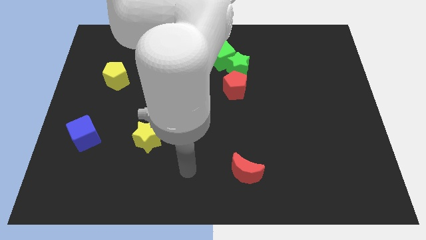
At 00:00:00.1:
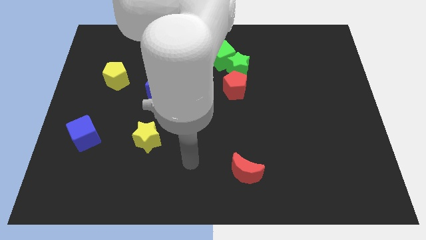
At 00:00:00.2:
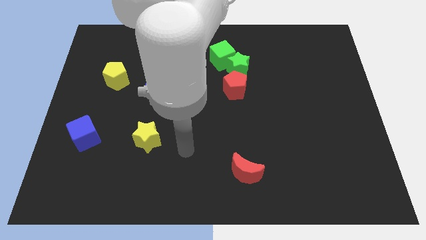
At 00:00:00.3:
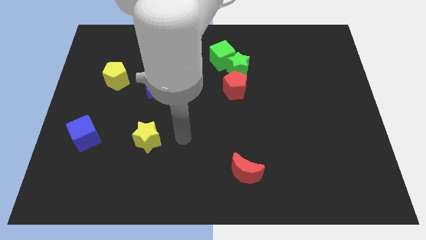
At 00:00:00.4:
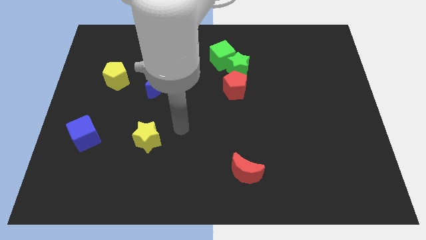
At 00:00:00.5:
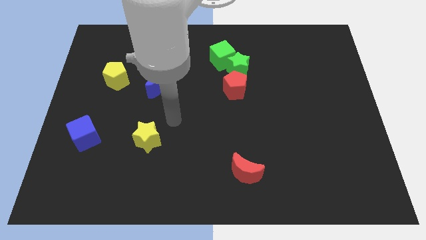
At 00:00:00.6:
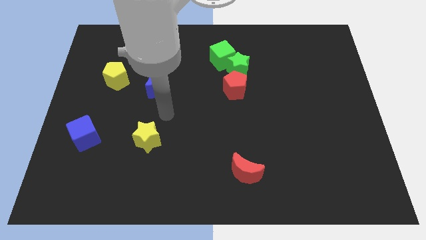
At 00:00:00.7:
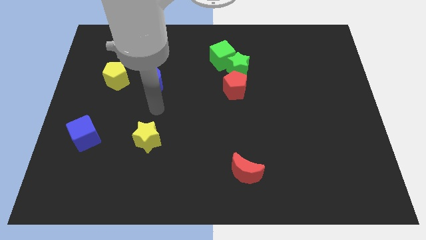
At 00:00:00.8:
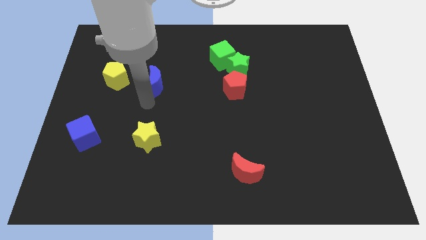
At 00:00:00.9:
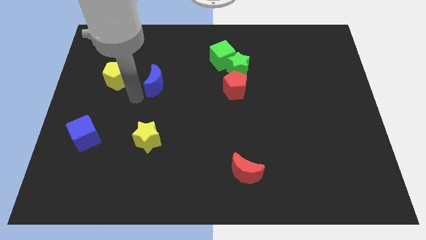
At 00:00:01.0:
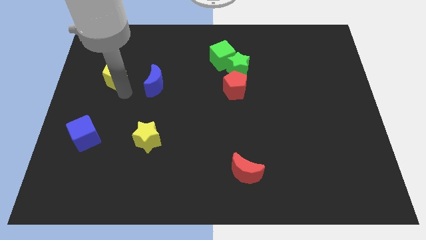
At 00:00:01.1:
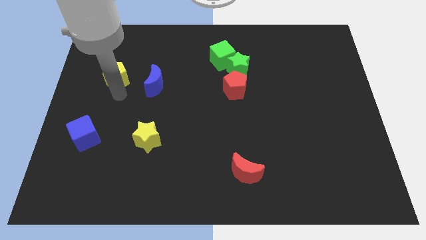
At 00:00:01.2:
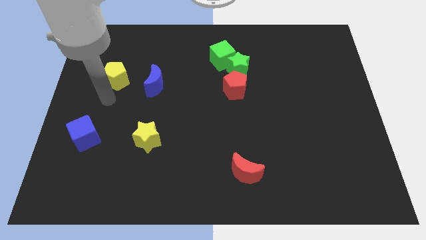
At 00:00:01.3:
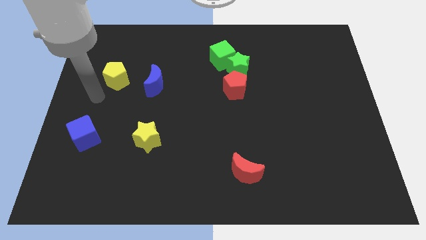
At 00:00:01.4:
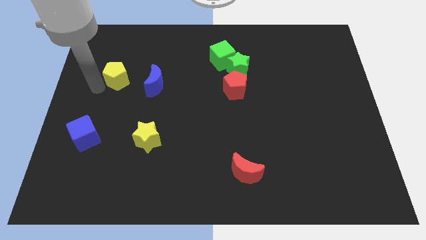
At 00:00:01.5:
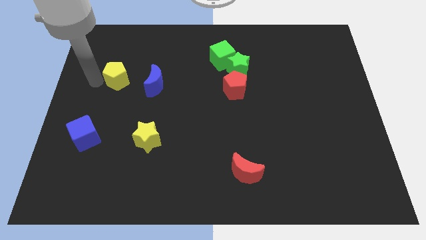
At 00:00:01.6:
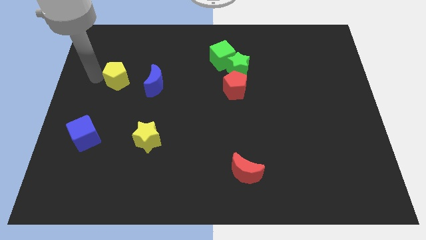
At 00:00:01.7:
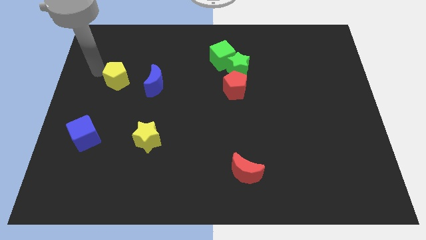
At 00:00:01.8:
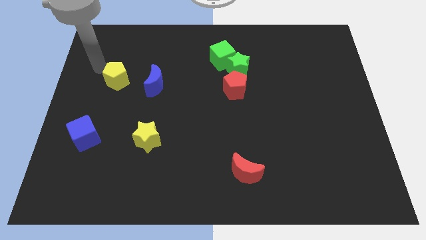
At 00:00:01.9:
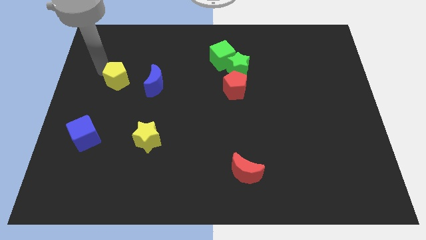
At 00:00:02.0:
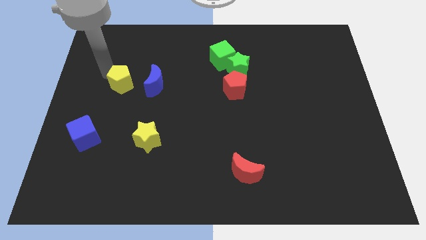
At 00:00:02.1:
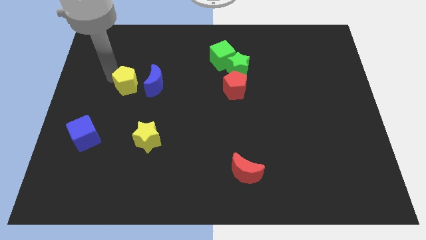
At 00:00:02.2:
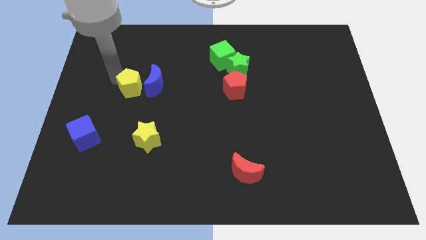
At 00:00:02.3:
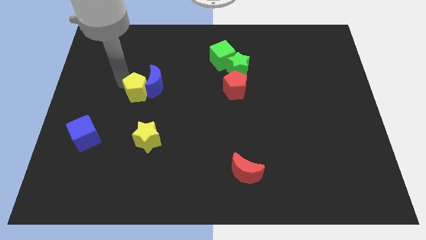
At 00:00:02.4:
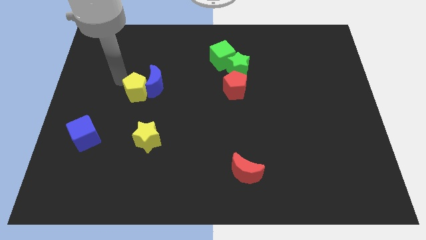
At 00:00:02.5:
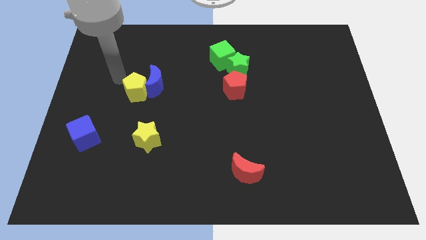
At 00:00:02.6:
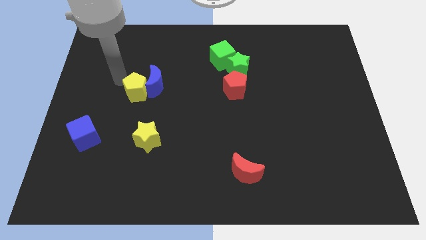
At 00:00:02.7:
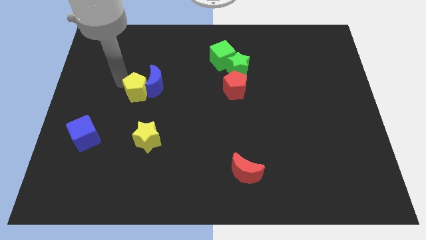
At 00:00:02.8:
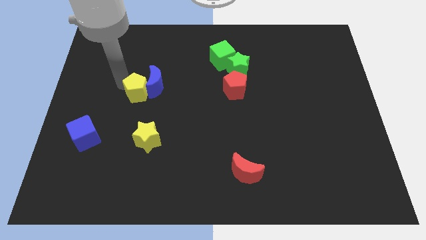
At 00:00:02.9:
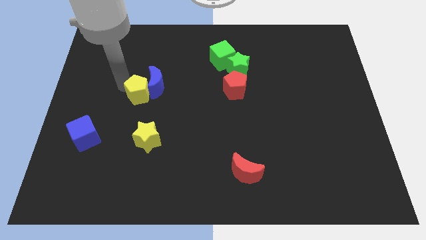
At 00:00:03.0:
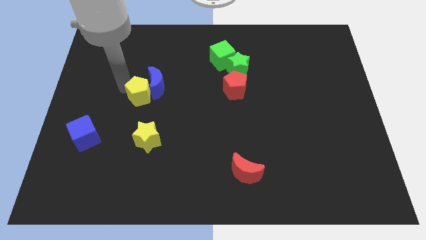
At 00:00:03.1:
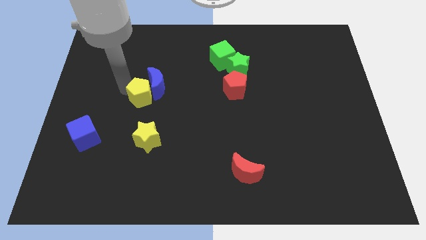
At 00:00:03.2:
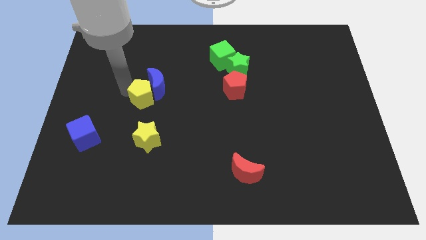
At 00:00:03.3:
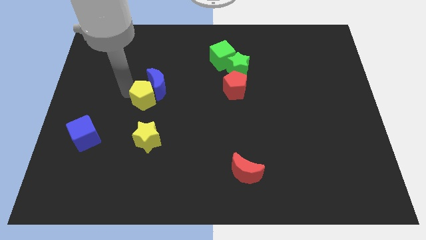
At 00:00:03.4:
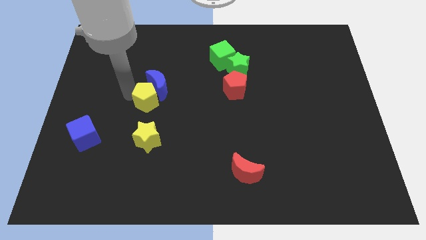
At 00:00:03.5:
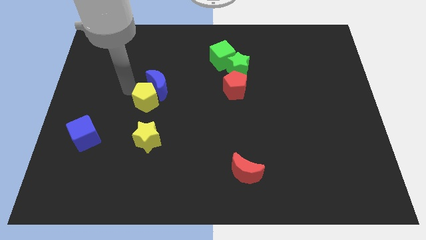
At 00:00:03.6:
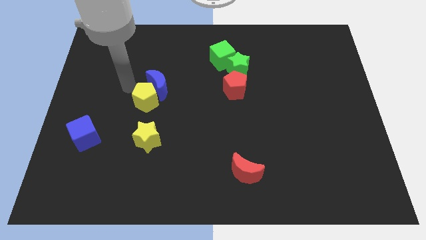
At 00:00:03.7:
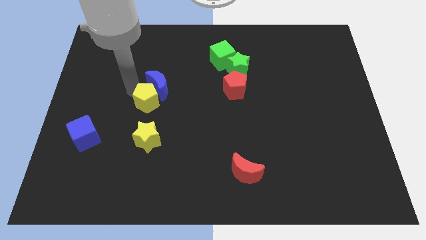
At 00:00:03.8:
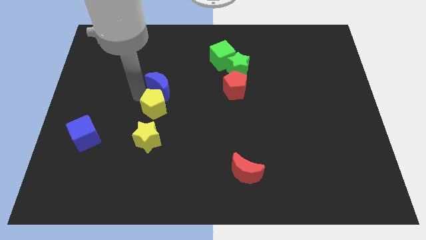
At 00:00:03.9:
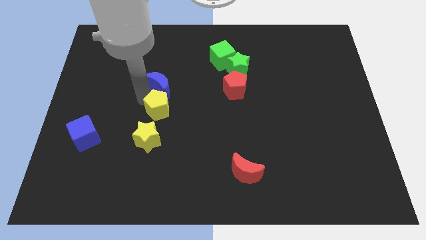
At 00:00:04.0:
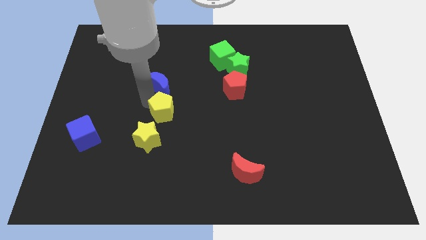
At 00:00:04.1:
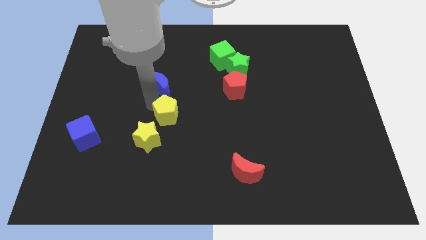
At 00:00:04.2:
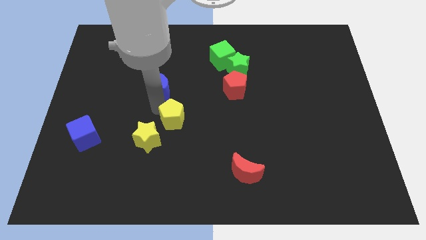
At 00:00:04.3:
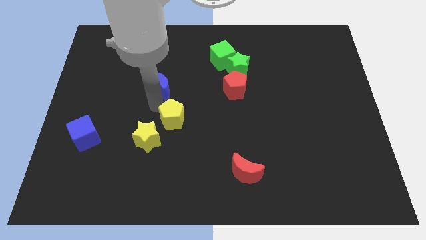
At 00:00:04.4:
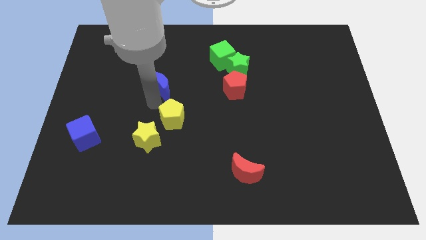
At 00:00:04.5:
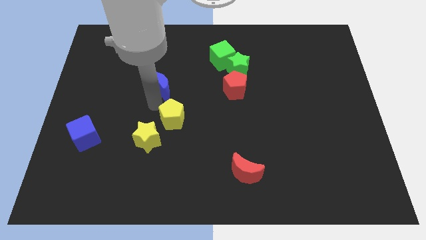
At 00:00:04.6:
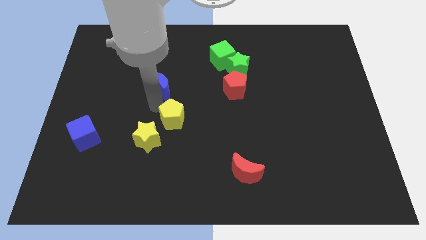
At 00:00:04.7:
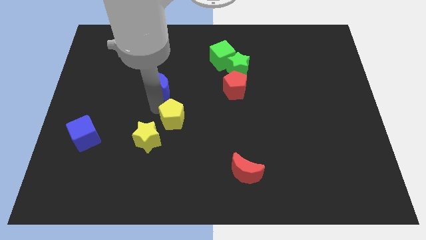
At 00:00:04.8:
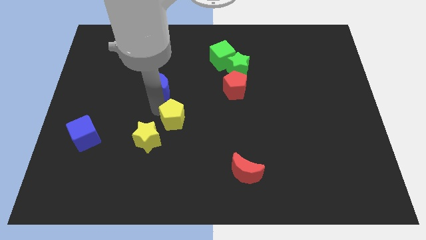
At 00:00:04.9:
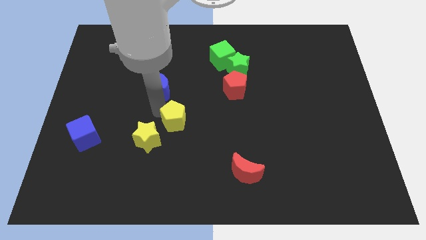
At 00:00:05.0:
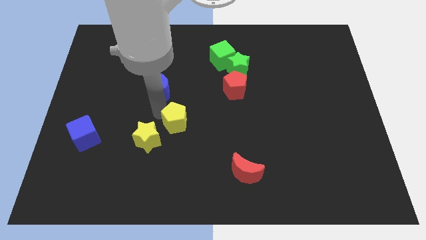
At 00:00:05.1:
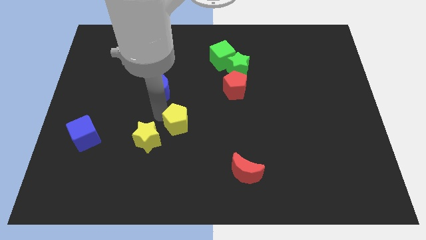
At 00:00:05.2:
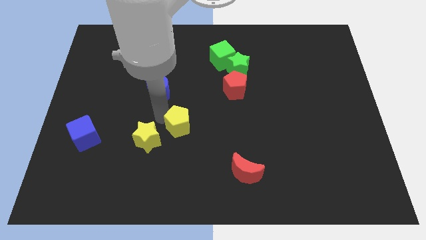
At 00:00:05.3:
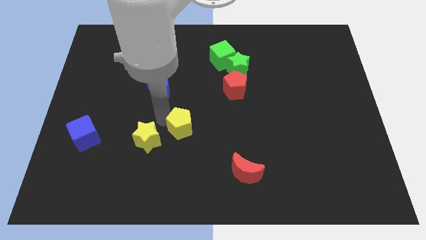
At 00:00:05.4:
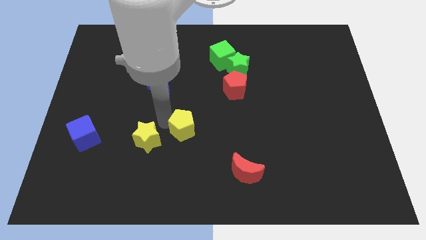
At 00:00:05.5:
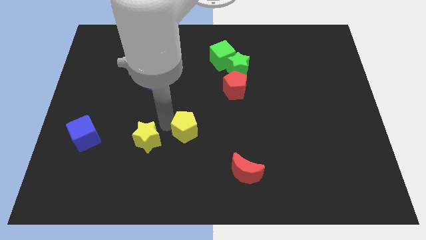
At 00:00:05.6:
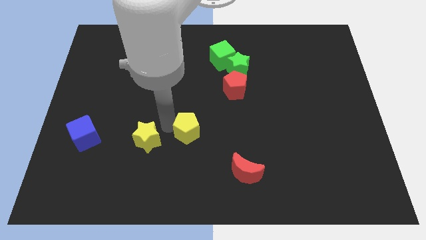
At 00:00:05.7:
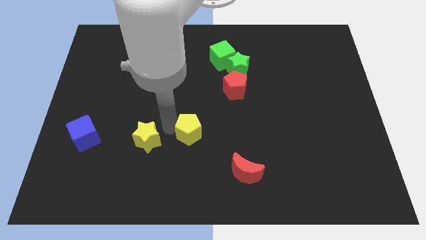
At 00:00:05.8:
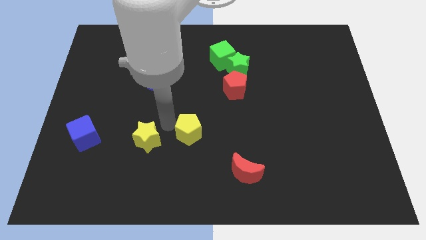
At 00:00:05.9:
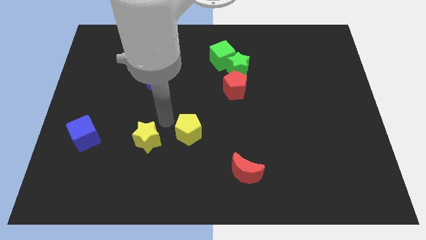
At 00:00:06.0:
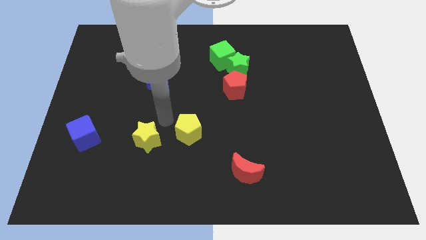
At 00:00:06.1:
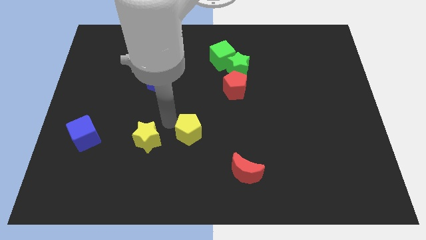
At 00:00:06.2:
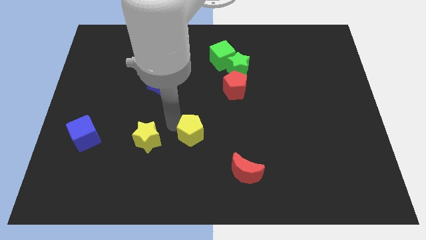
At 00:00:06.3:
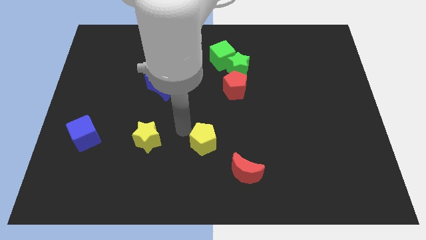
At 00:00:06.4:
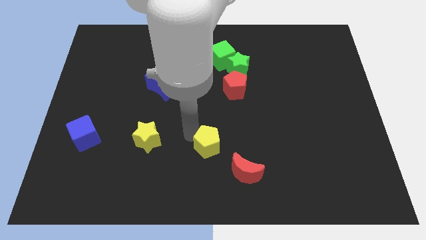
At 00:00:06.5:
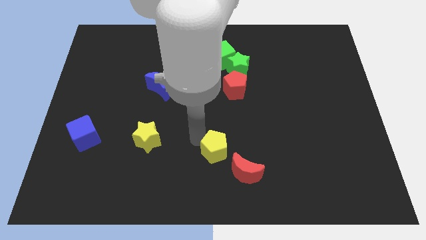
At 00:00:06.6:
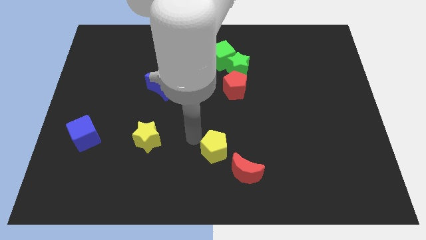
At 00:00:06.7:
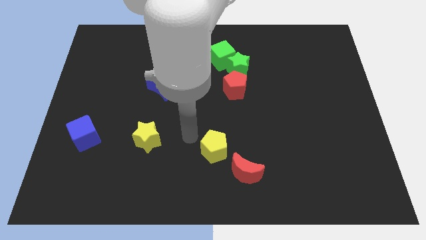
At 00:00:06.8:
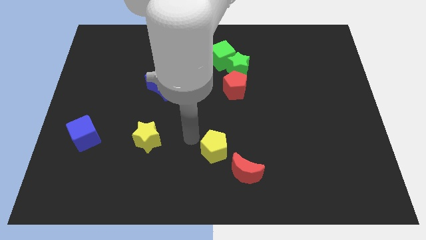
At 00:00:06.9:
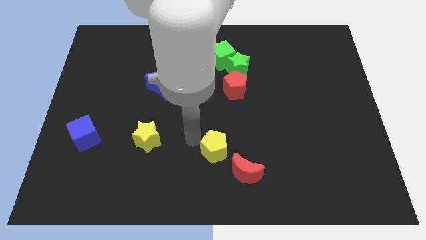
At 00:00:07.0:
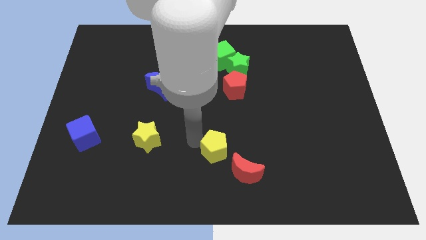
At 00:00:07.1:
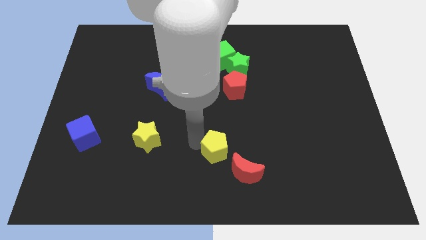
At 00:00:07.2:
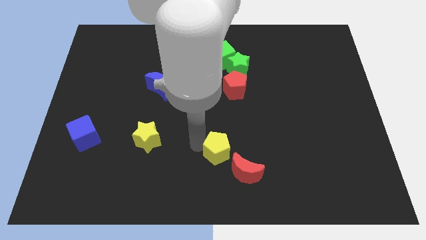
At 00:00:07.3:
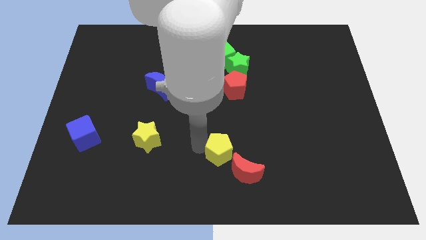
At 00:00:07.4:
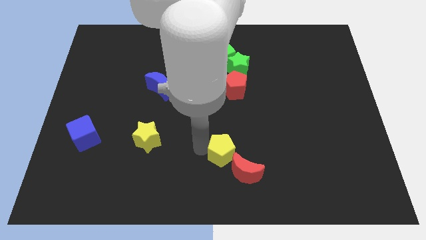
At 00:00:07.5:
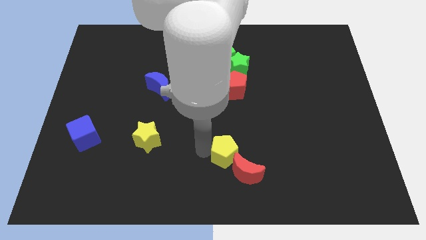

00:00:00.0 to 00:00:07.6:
slide the yellow pentagon towards the red moon
